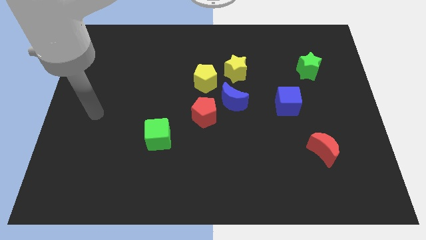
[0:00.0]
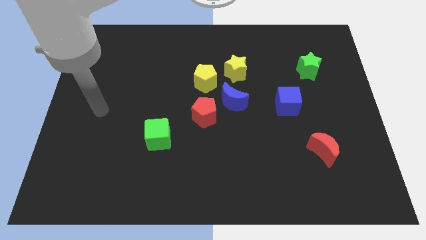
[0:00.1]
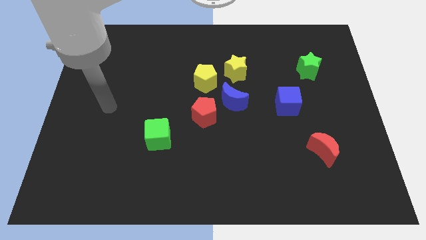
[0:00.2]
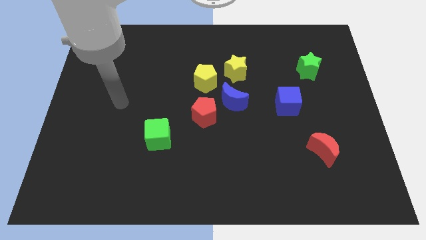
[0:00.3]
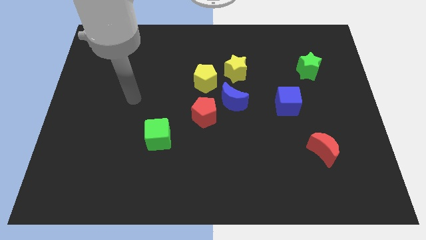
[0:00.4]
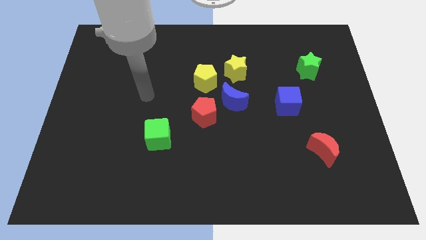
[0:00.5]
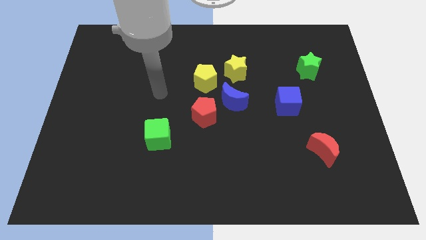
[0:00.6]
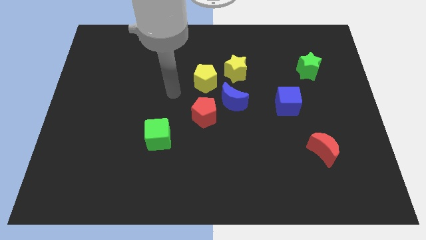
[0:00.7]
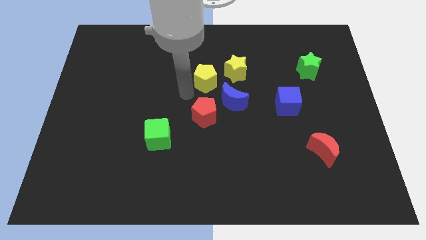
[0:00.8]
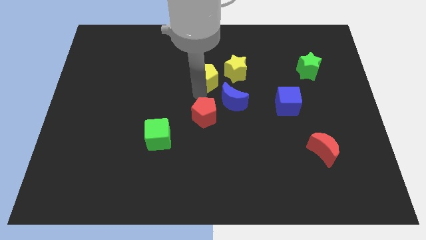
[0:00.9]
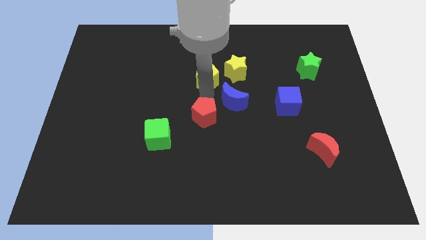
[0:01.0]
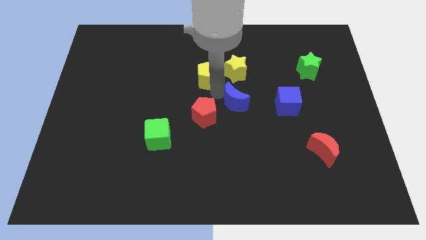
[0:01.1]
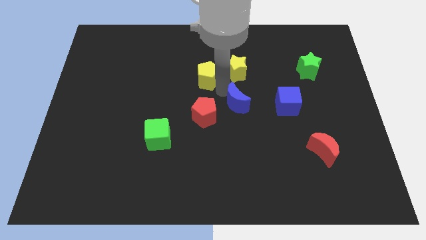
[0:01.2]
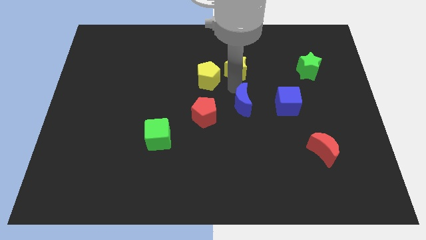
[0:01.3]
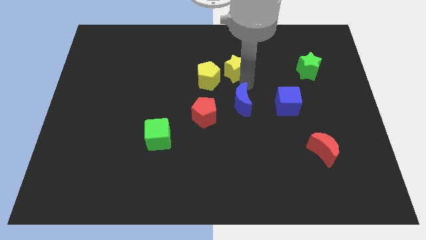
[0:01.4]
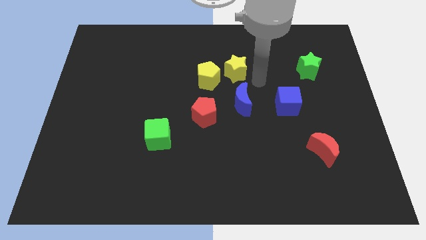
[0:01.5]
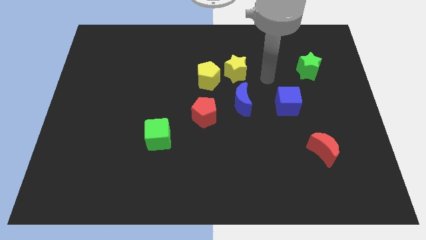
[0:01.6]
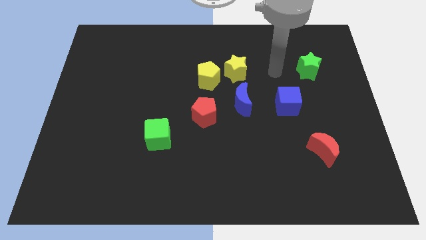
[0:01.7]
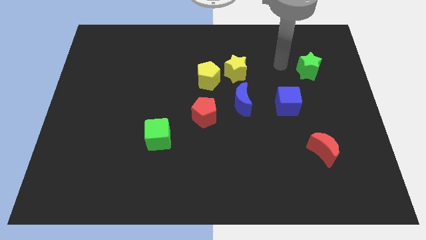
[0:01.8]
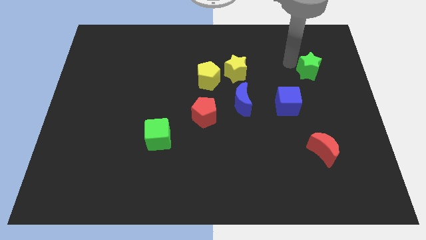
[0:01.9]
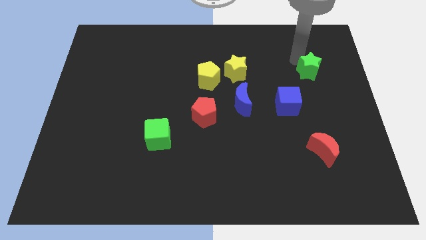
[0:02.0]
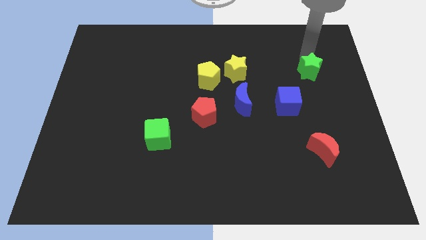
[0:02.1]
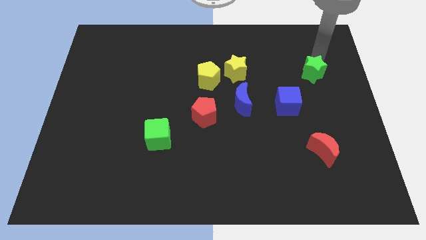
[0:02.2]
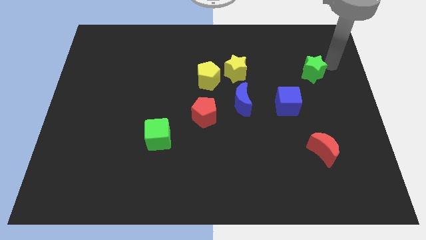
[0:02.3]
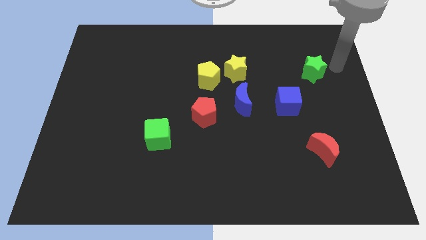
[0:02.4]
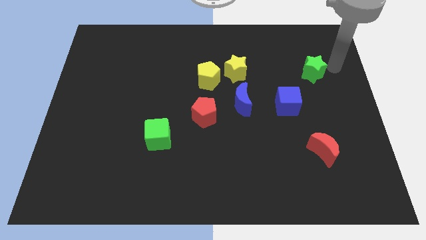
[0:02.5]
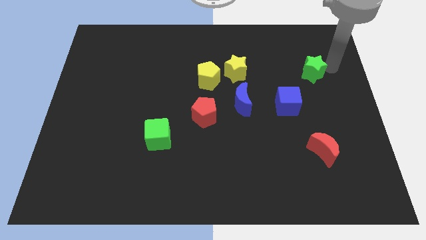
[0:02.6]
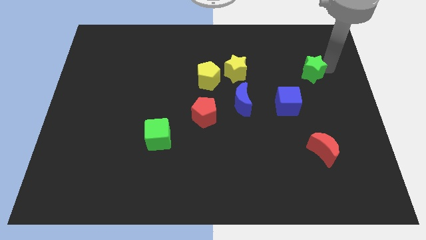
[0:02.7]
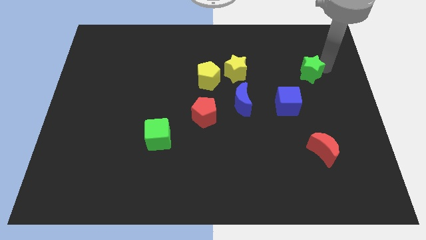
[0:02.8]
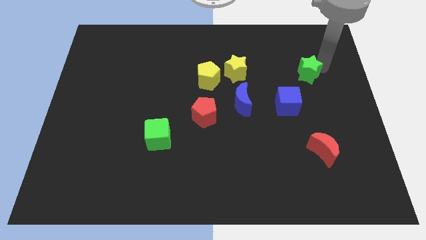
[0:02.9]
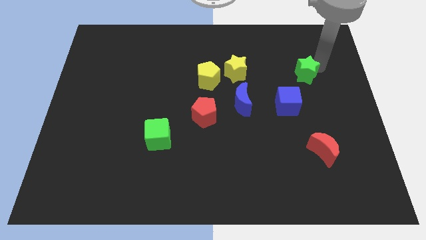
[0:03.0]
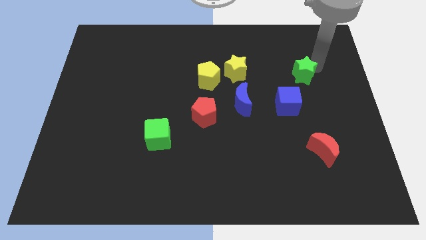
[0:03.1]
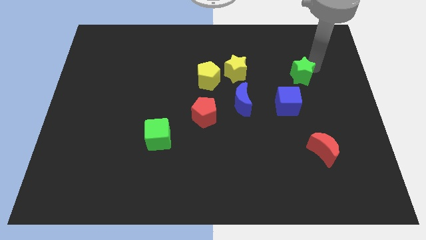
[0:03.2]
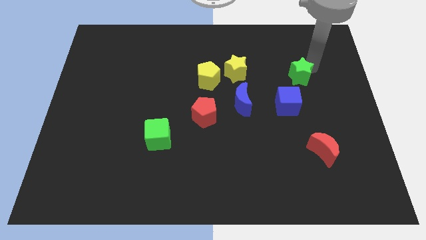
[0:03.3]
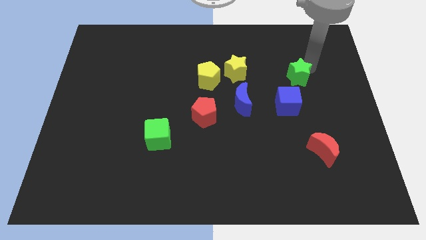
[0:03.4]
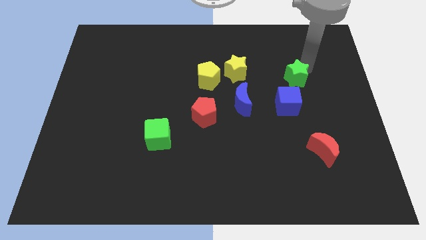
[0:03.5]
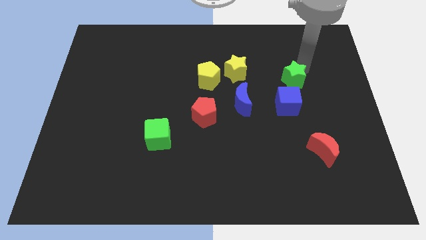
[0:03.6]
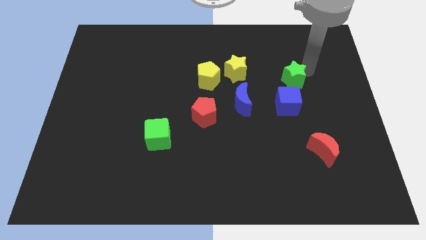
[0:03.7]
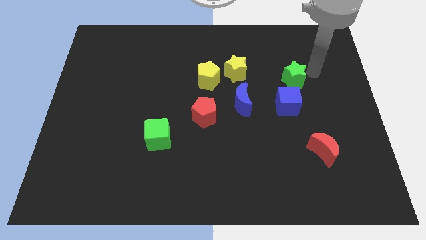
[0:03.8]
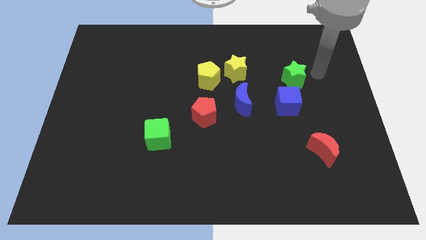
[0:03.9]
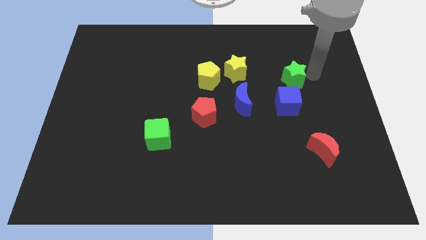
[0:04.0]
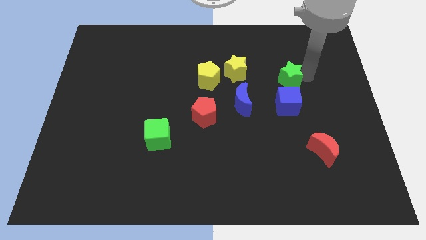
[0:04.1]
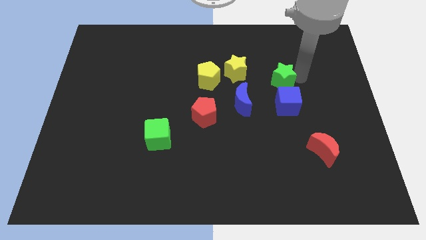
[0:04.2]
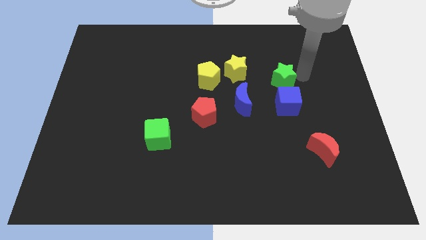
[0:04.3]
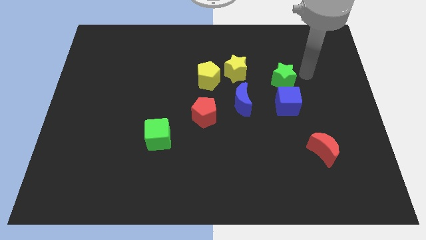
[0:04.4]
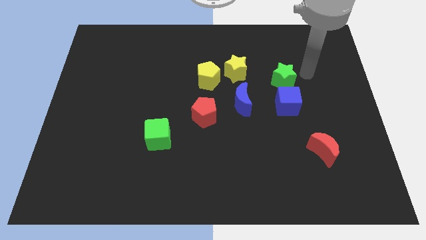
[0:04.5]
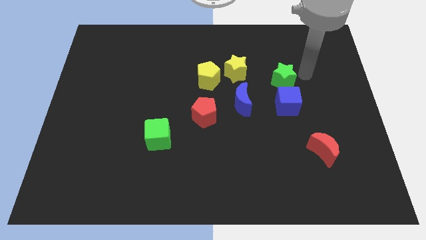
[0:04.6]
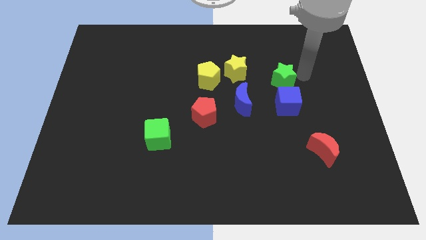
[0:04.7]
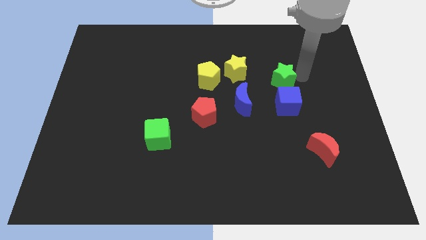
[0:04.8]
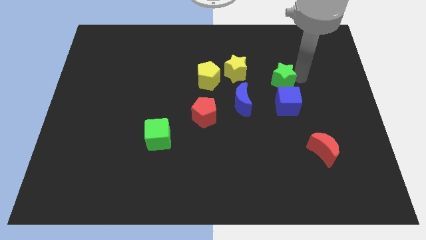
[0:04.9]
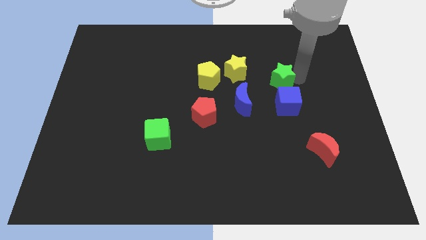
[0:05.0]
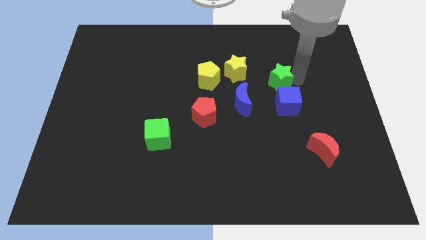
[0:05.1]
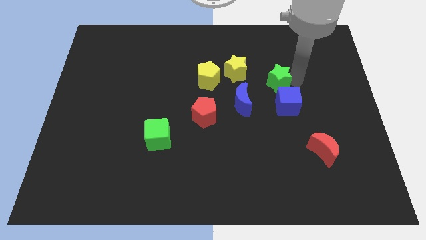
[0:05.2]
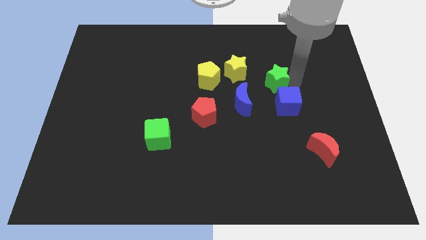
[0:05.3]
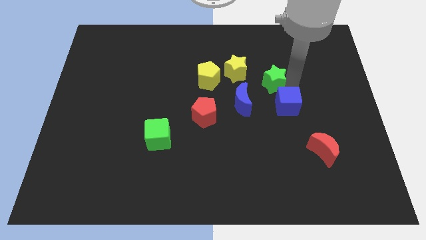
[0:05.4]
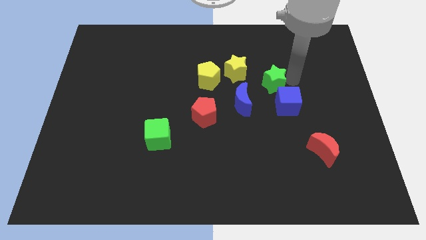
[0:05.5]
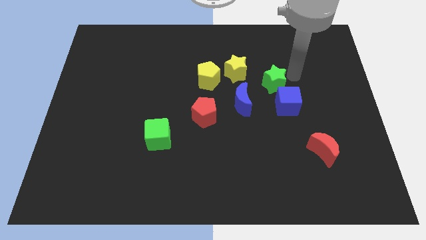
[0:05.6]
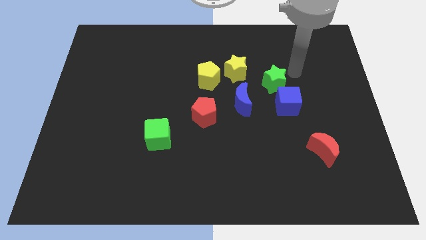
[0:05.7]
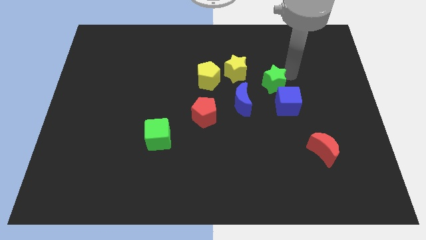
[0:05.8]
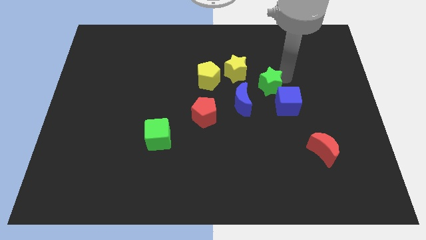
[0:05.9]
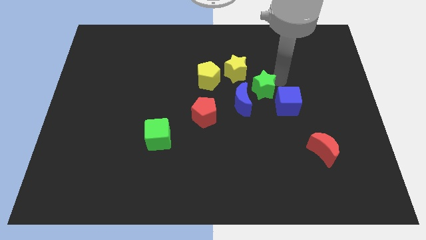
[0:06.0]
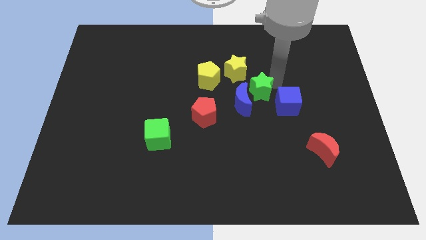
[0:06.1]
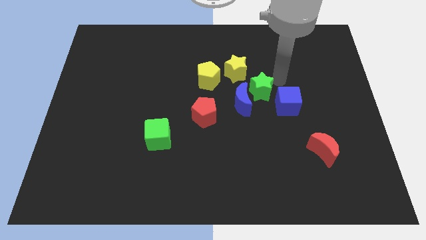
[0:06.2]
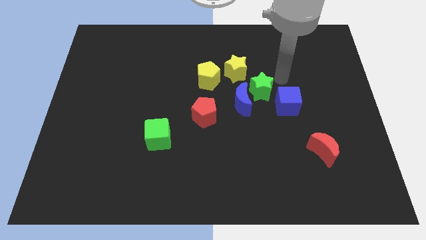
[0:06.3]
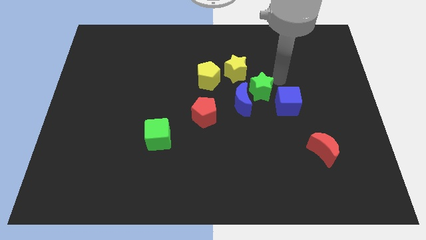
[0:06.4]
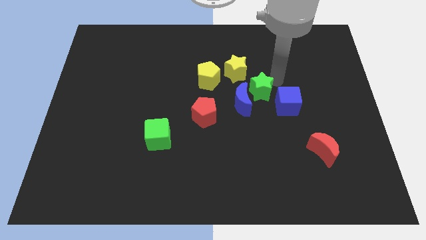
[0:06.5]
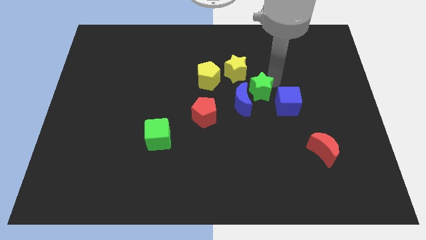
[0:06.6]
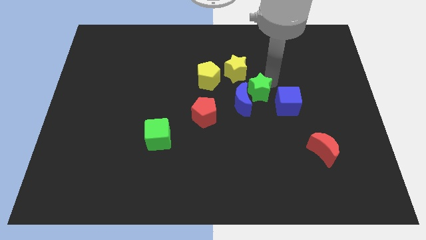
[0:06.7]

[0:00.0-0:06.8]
put the green star to the blue moon
